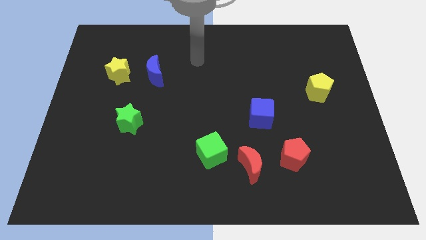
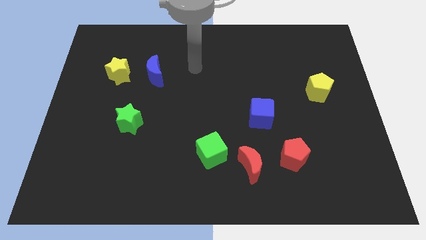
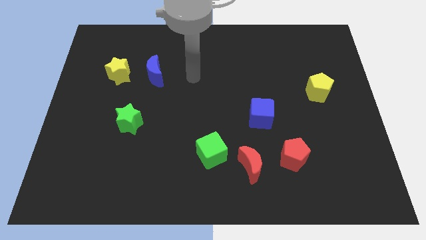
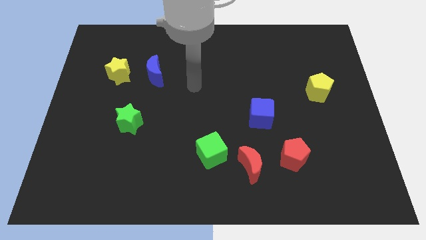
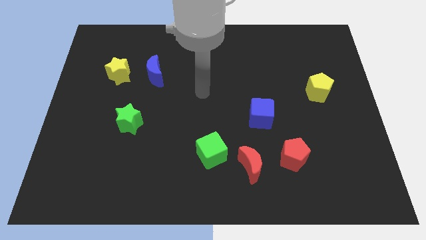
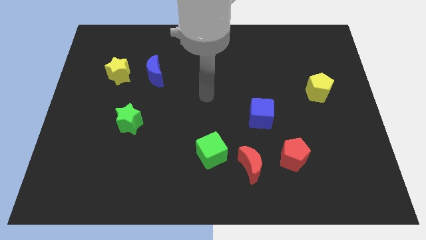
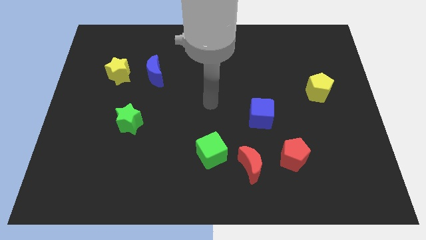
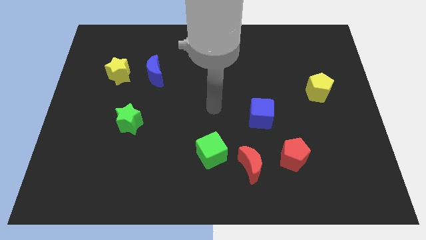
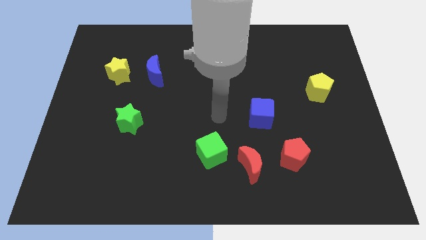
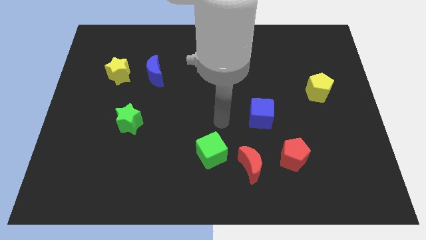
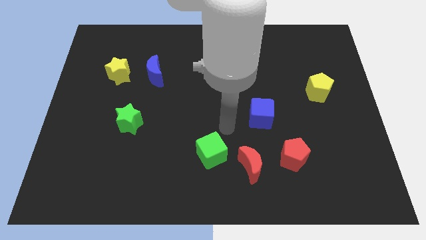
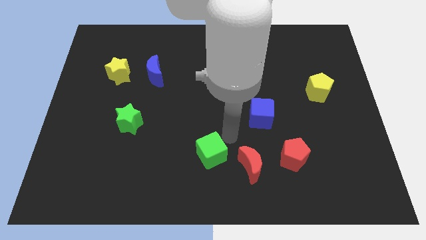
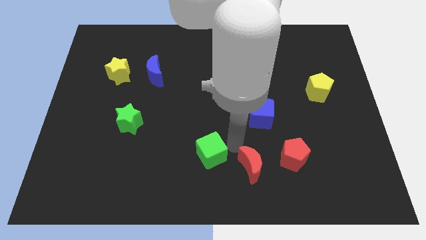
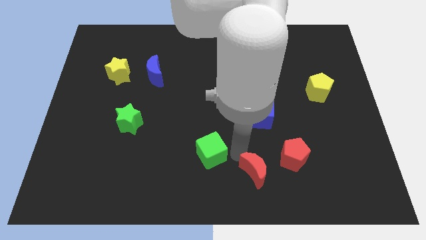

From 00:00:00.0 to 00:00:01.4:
pull the green cube apart from the red moon

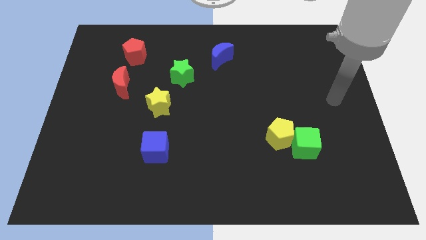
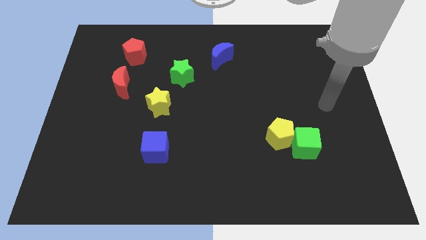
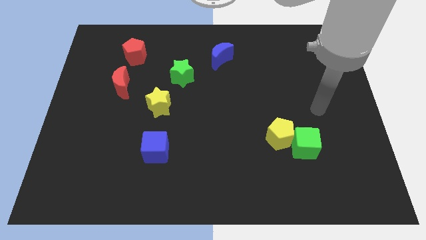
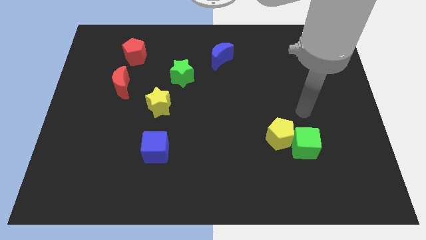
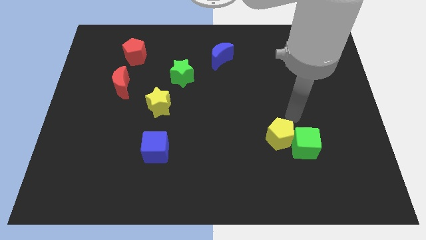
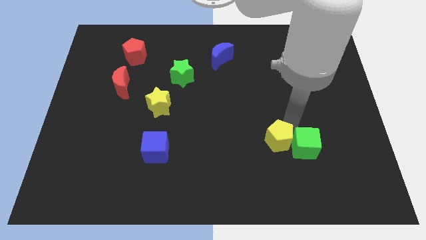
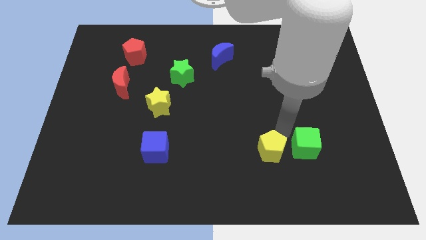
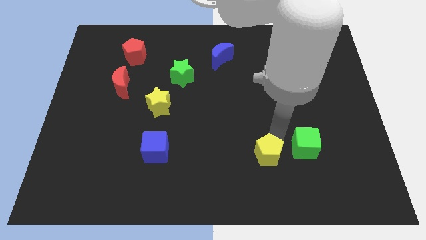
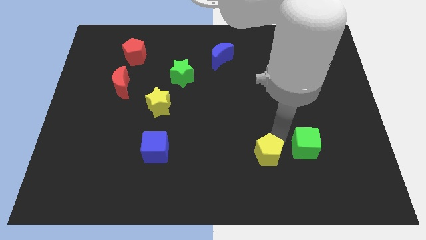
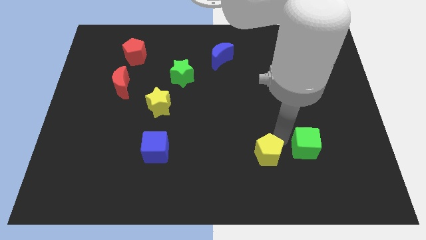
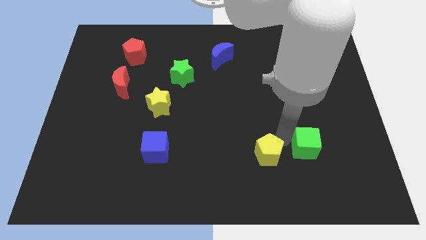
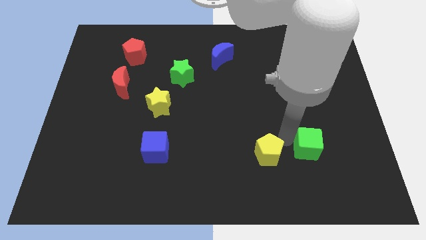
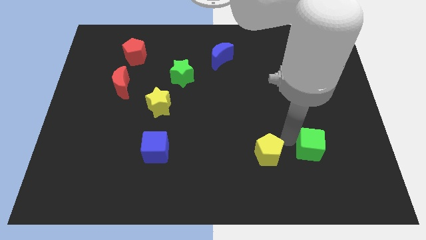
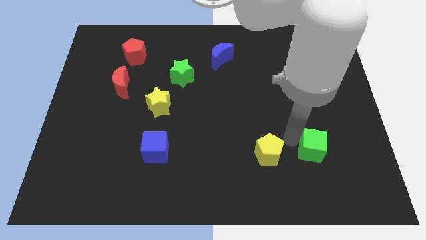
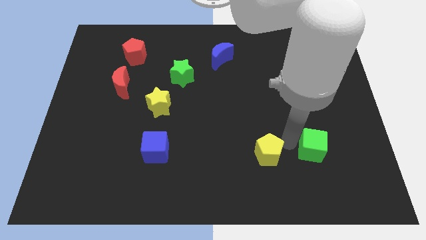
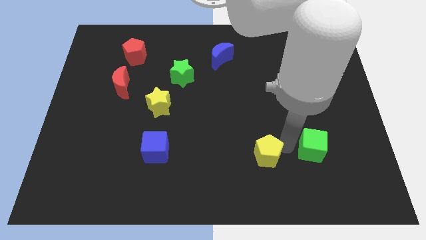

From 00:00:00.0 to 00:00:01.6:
separate the green cube from the yellow pentagon

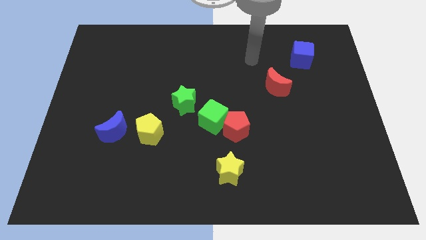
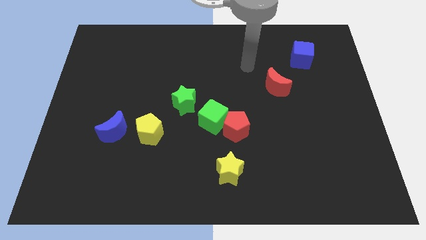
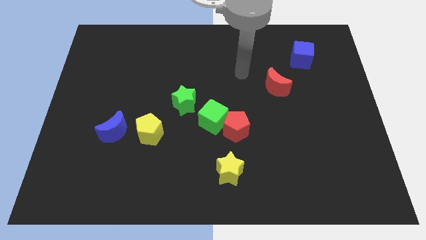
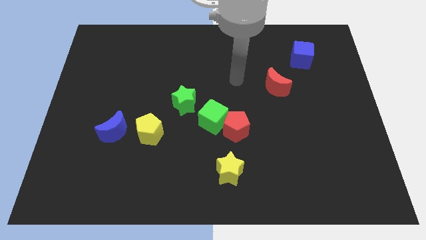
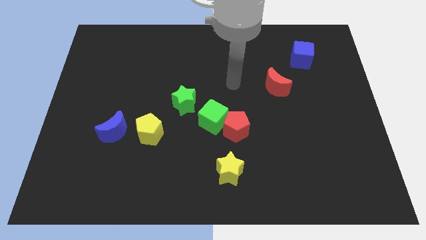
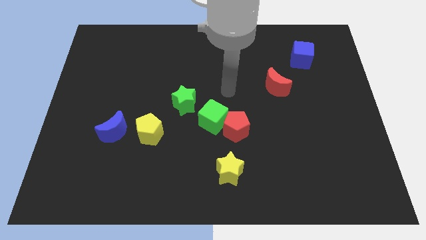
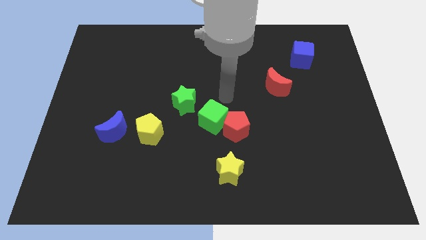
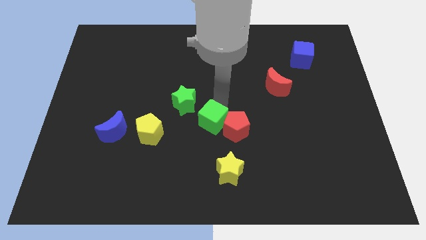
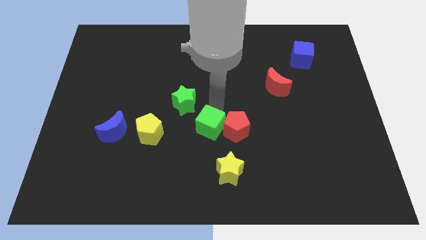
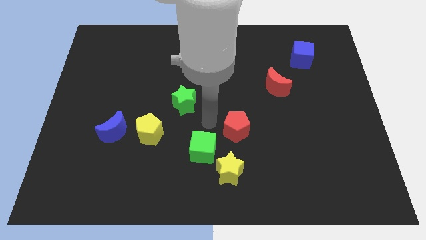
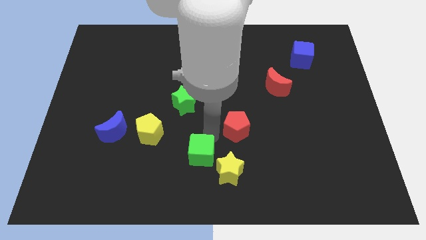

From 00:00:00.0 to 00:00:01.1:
move the red pentagon away from the green cube

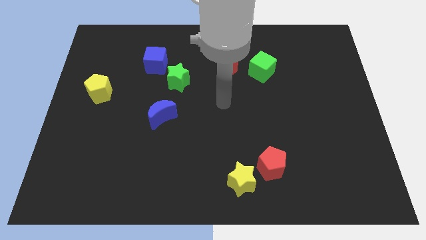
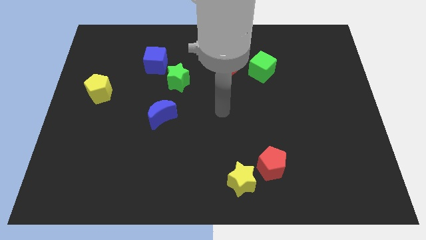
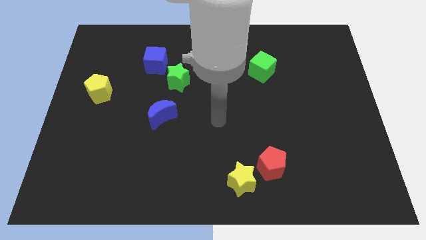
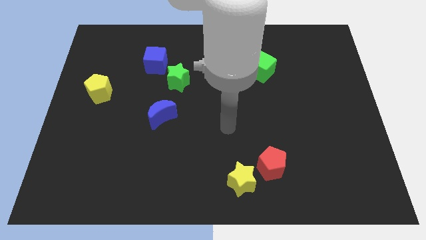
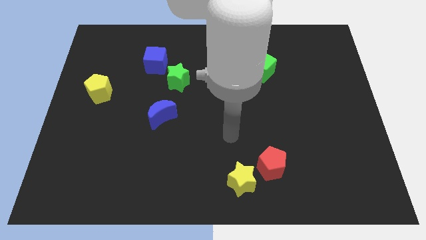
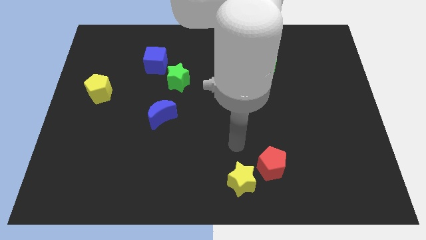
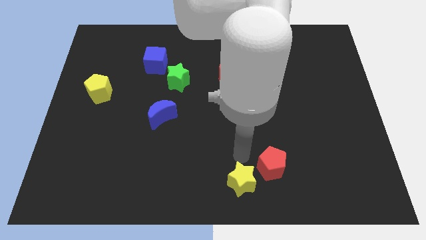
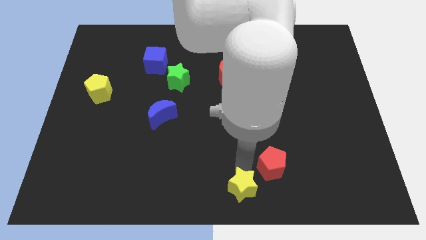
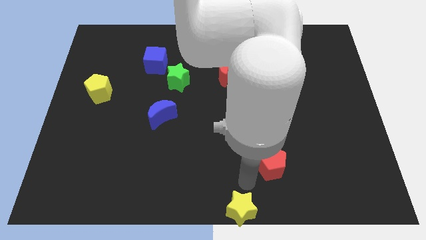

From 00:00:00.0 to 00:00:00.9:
pull the red pentagon apart from the yellow star

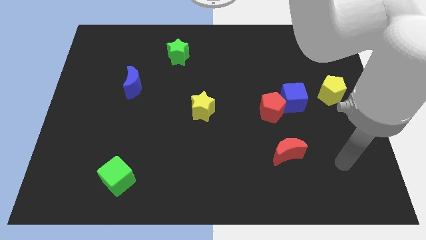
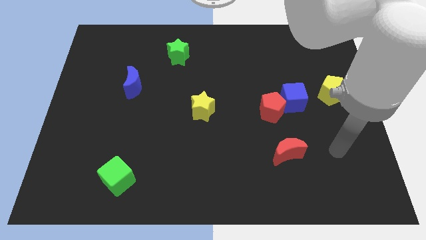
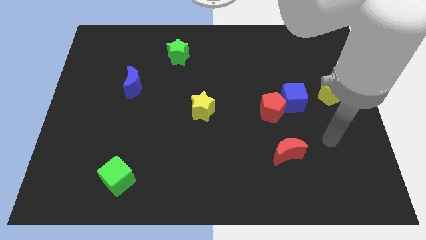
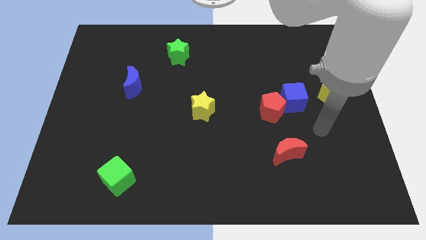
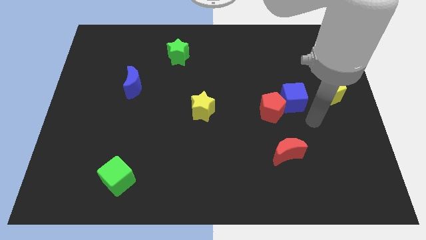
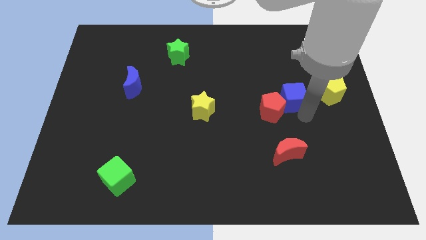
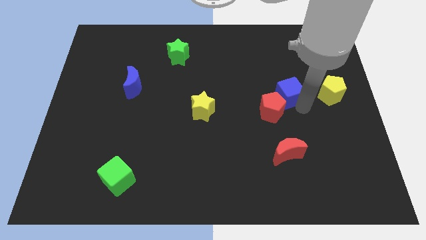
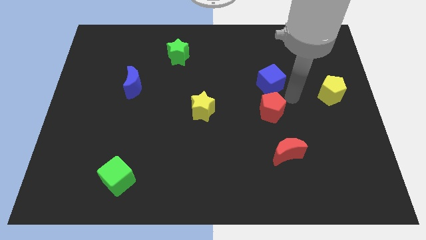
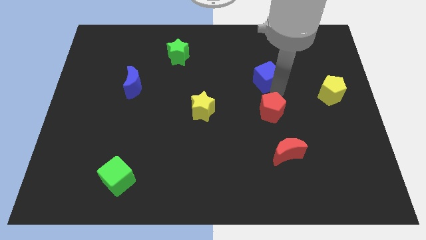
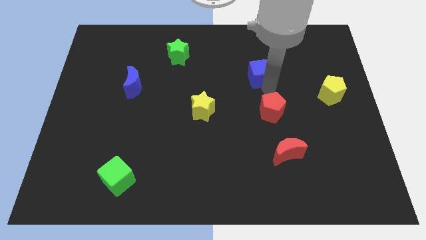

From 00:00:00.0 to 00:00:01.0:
pull the red pentagon apart from the blue cube

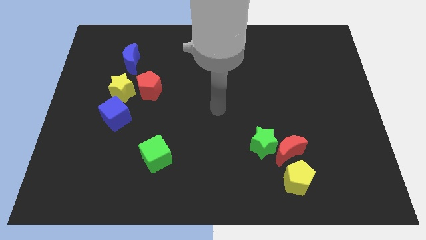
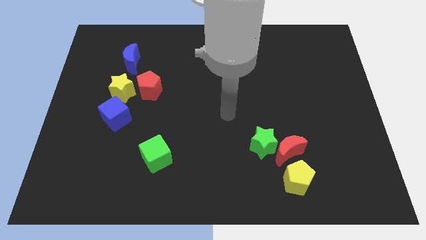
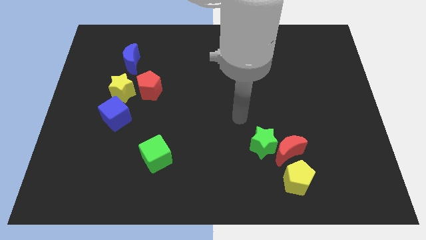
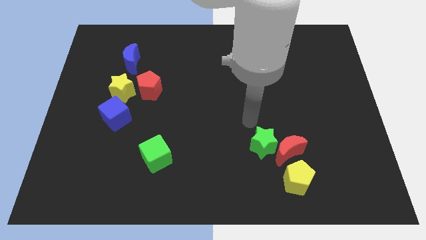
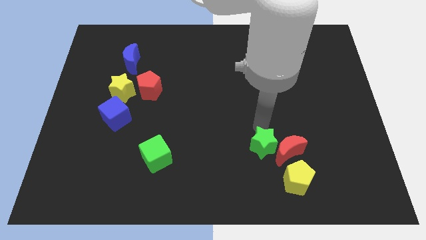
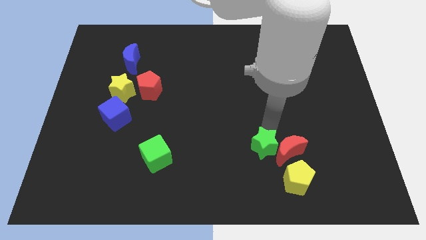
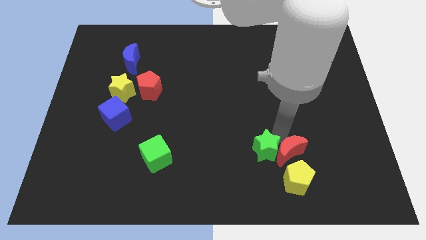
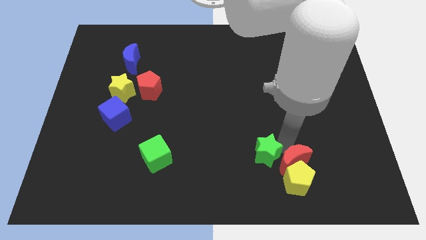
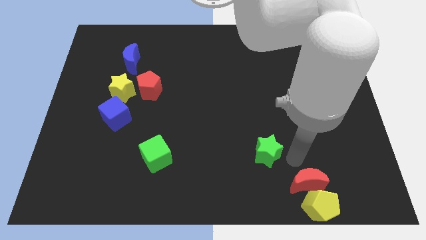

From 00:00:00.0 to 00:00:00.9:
move the green star away from the red moon

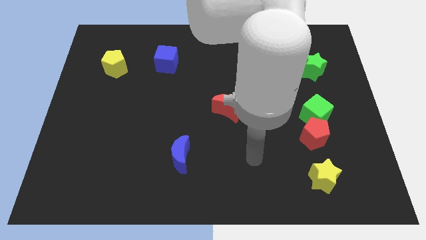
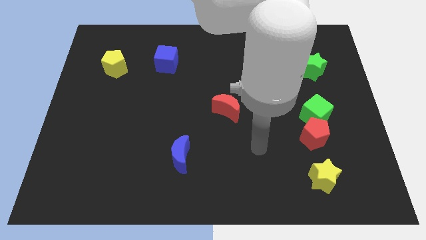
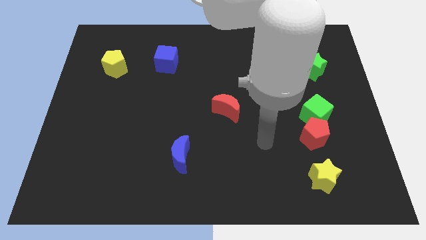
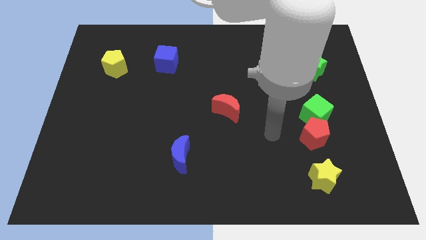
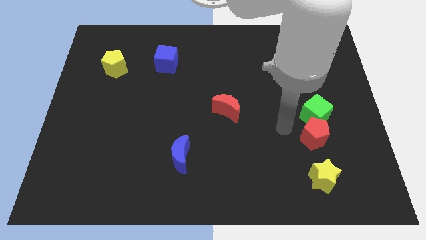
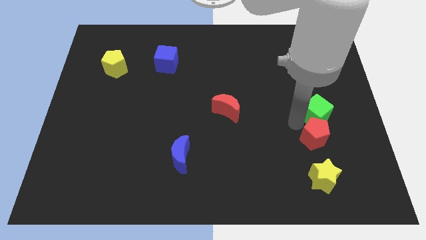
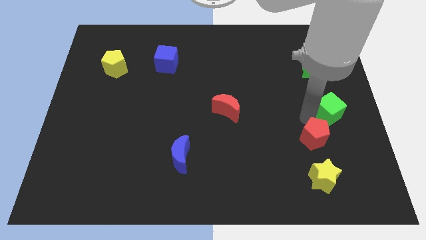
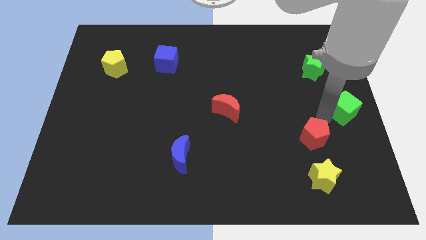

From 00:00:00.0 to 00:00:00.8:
separate the red pentagon from the green cube

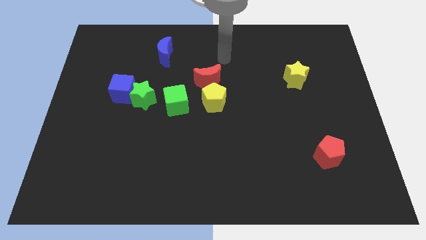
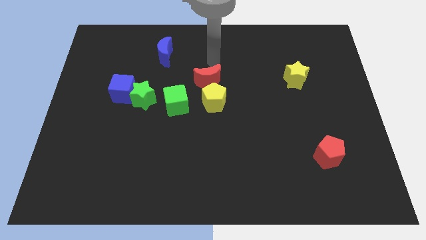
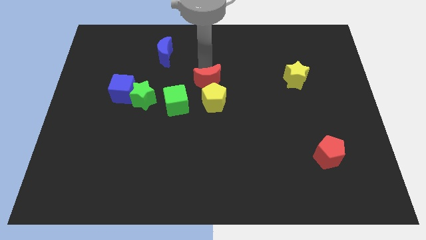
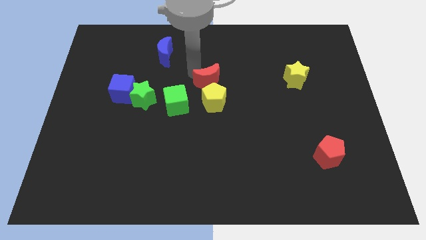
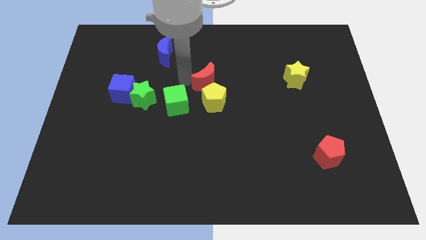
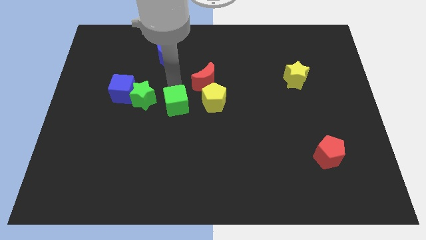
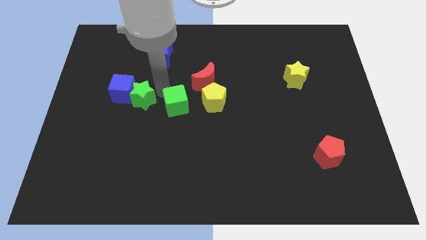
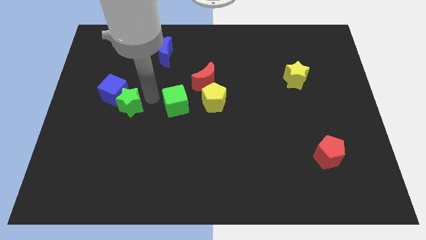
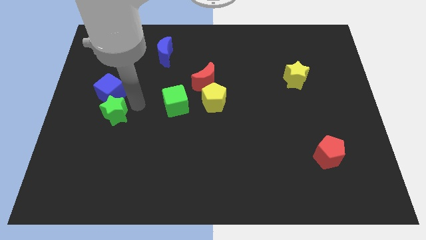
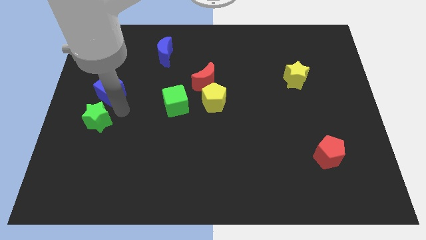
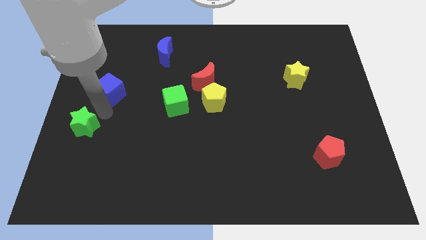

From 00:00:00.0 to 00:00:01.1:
separate the blue cube from the green star

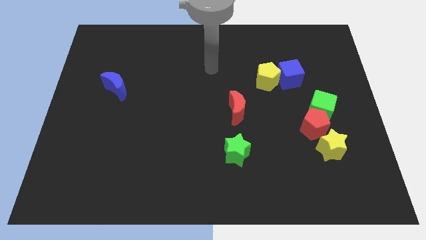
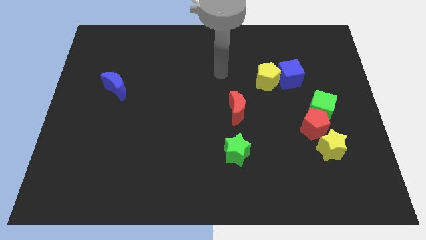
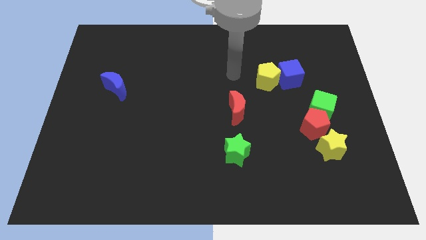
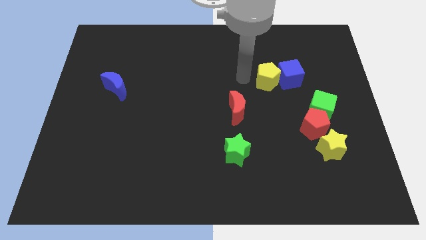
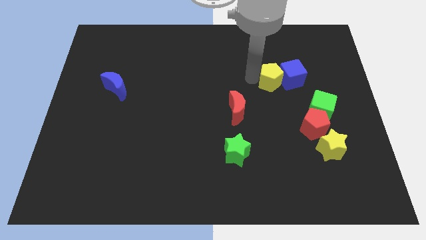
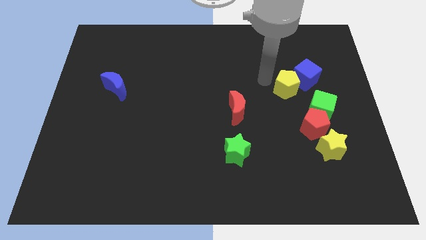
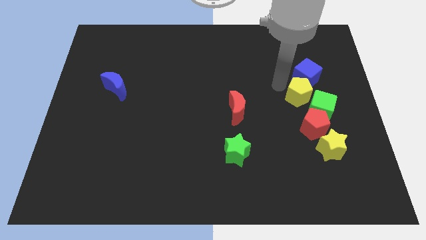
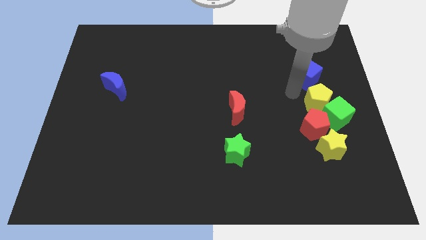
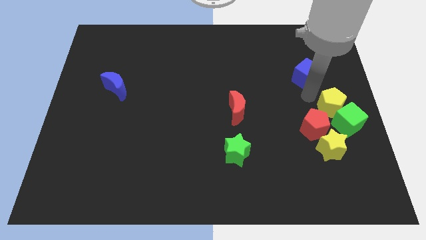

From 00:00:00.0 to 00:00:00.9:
move the blue cube away from the yellow pentagon
